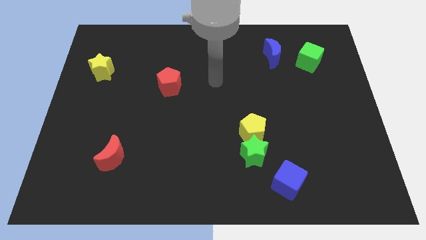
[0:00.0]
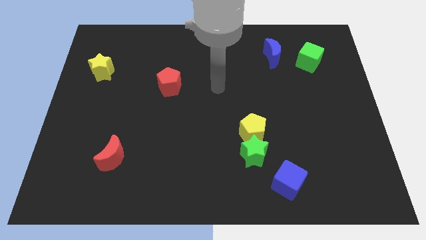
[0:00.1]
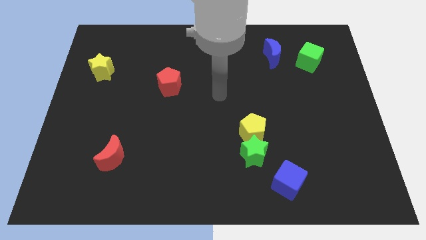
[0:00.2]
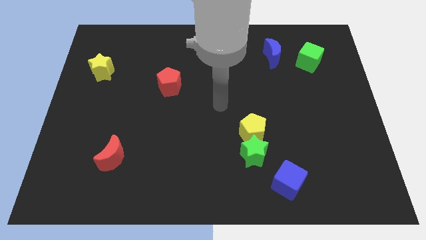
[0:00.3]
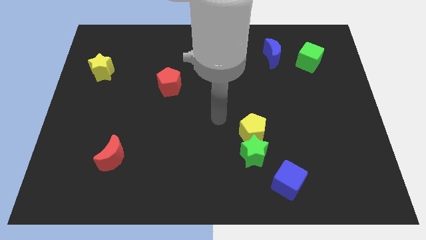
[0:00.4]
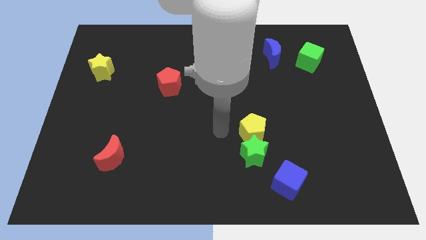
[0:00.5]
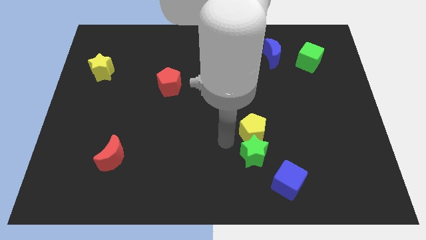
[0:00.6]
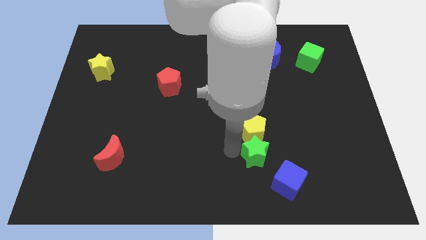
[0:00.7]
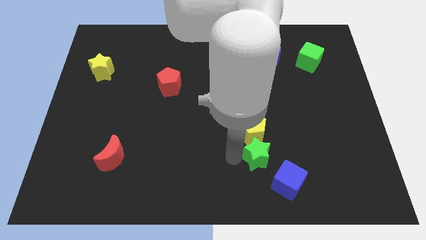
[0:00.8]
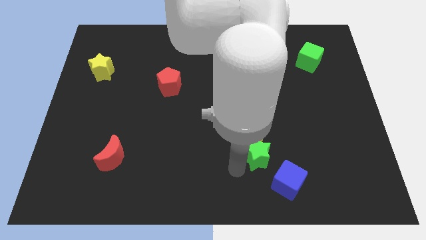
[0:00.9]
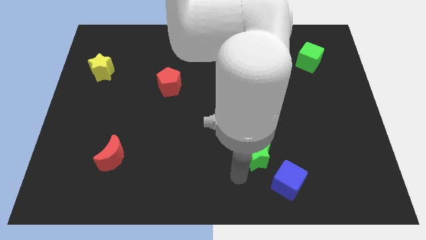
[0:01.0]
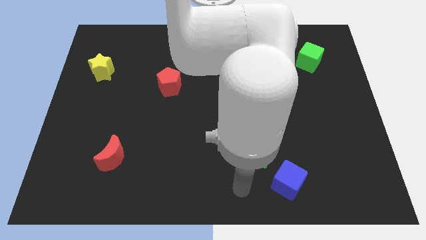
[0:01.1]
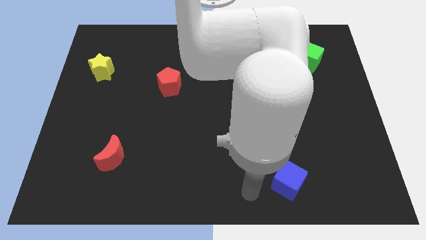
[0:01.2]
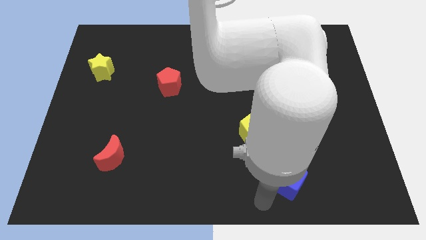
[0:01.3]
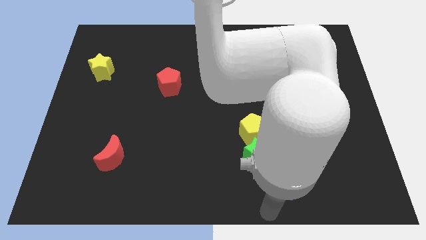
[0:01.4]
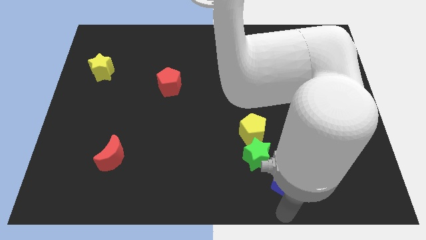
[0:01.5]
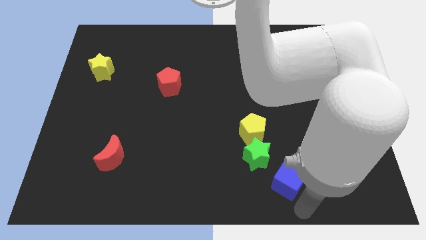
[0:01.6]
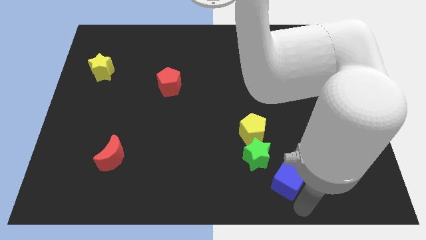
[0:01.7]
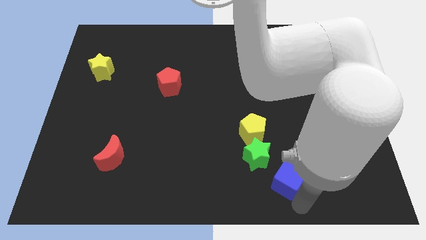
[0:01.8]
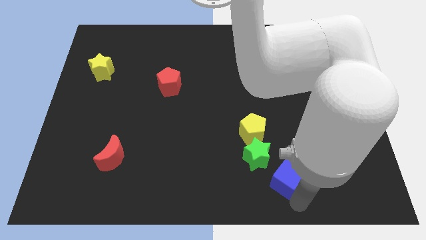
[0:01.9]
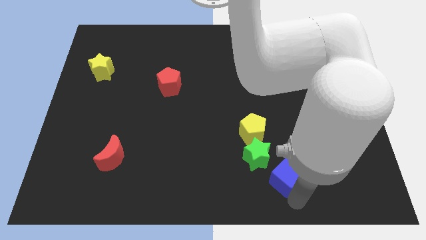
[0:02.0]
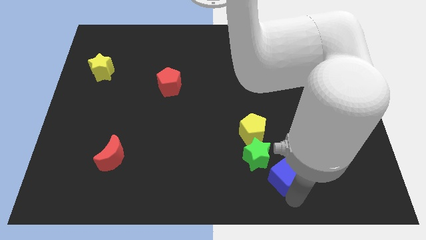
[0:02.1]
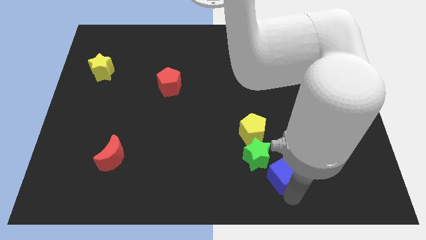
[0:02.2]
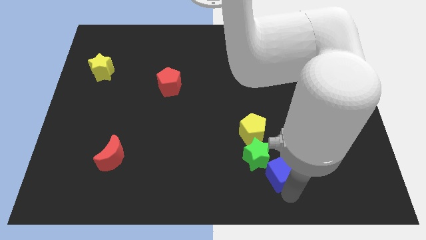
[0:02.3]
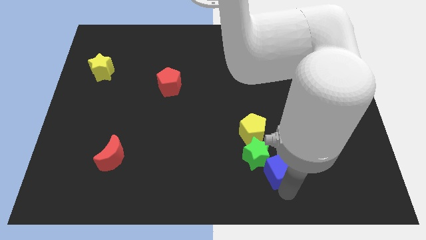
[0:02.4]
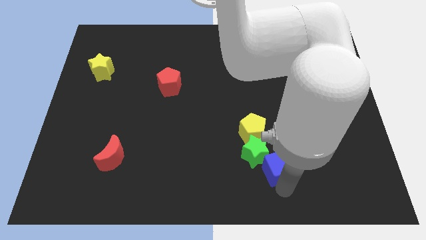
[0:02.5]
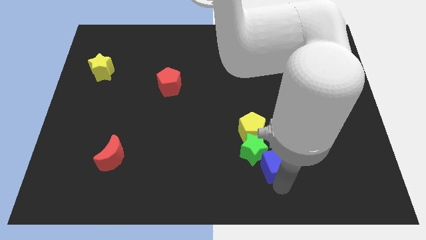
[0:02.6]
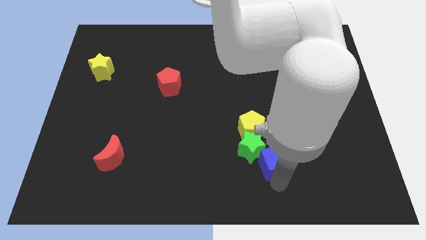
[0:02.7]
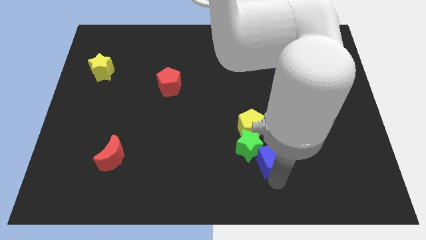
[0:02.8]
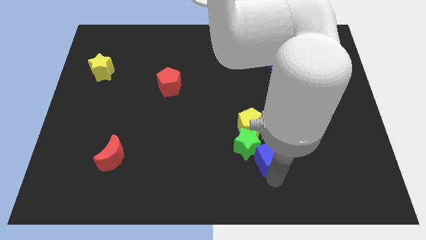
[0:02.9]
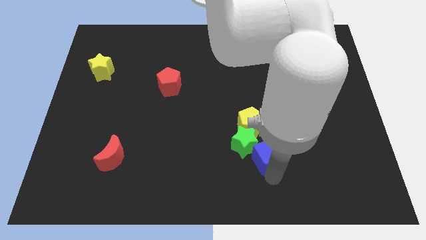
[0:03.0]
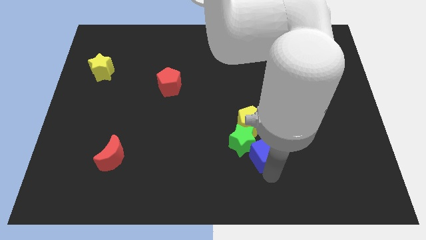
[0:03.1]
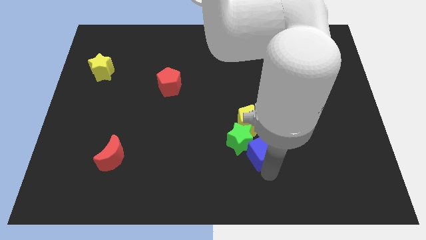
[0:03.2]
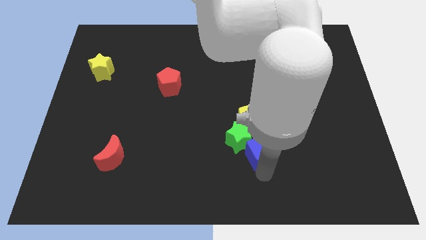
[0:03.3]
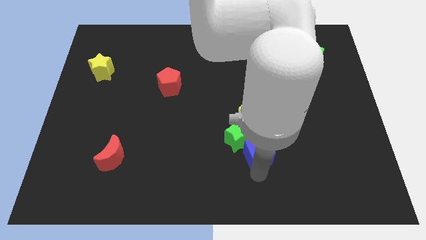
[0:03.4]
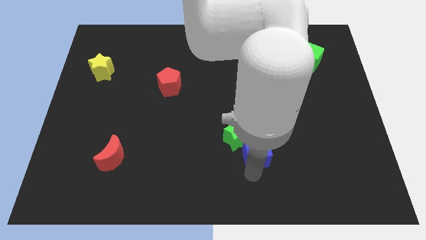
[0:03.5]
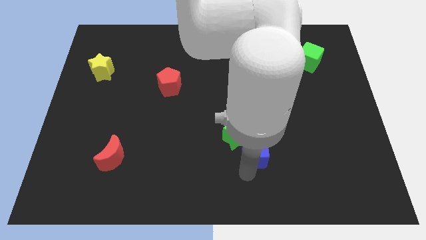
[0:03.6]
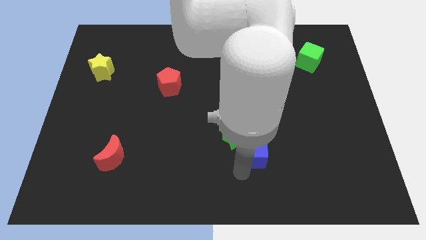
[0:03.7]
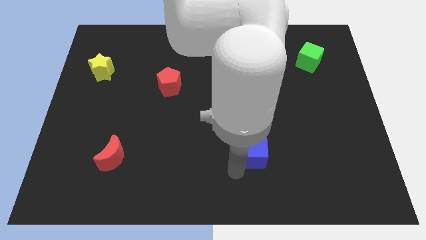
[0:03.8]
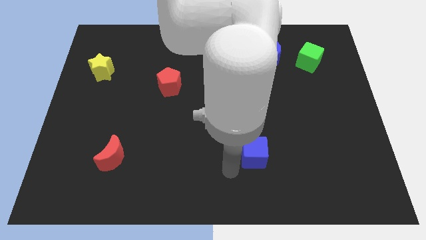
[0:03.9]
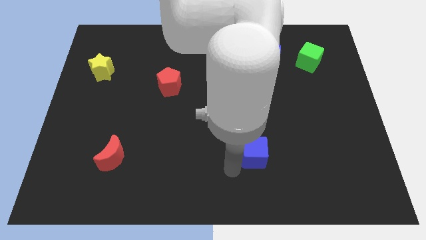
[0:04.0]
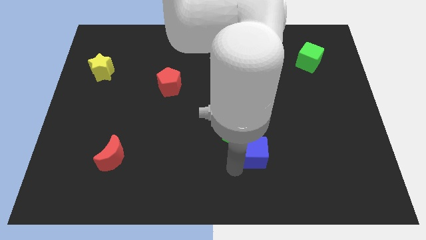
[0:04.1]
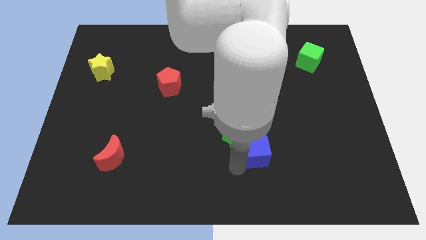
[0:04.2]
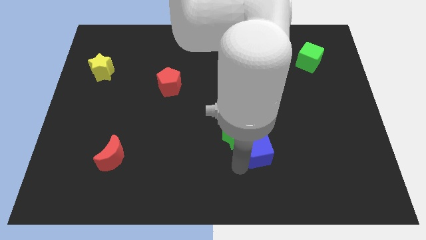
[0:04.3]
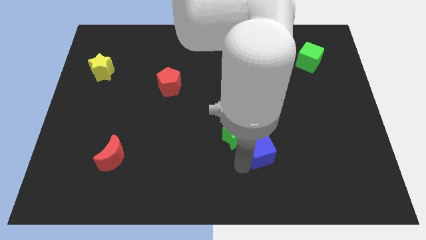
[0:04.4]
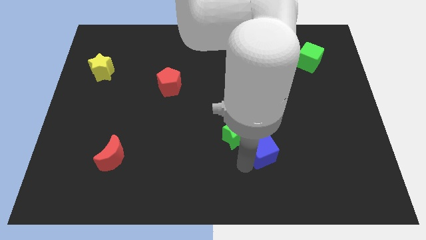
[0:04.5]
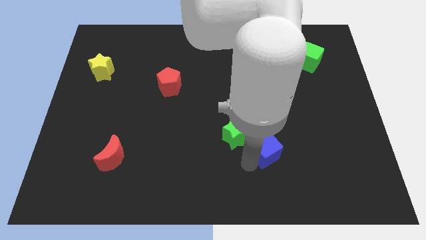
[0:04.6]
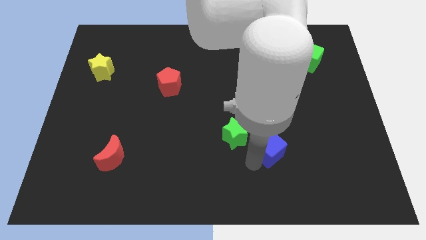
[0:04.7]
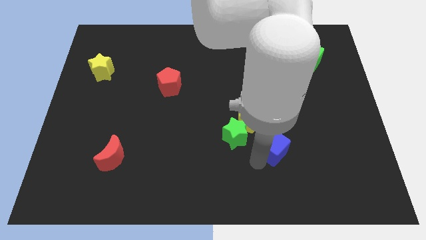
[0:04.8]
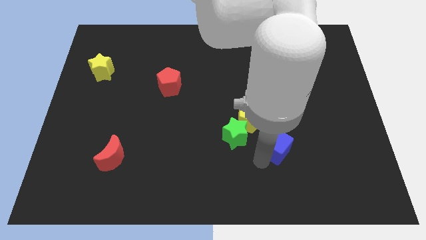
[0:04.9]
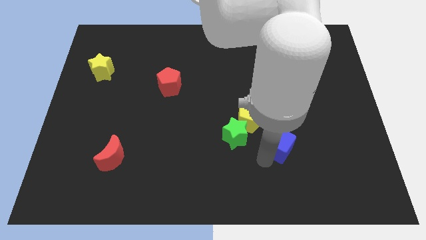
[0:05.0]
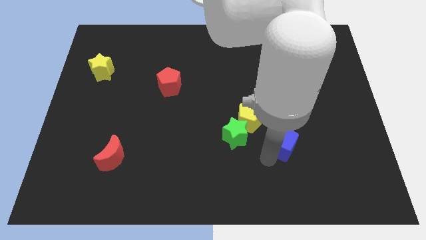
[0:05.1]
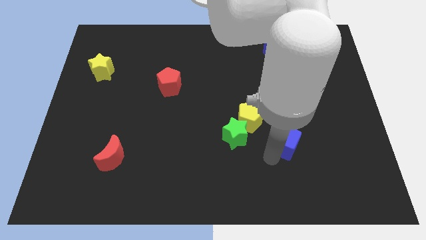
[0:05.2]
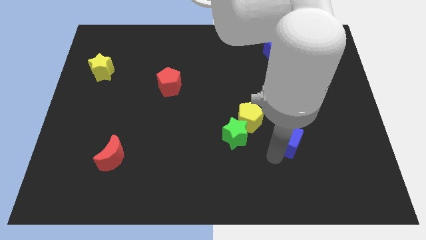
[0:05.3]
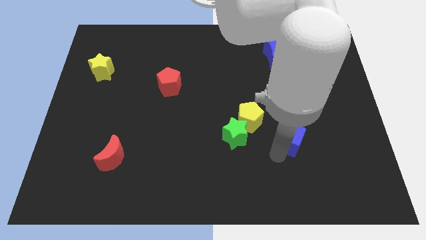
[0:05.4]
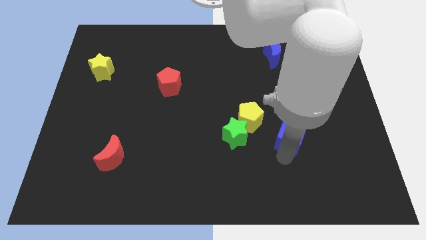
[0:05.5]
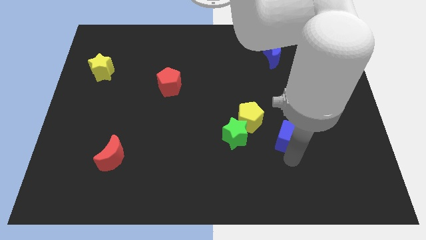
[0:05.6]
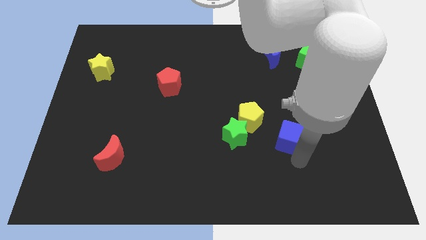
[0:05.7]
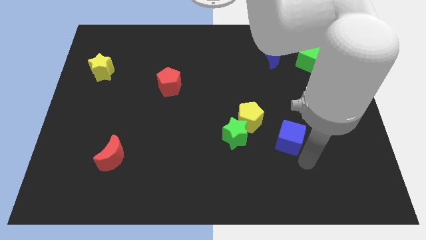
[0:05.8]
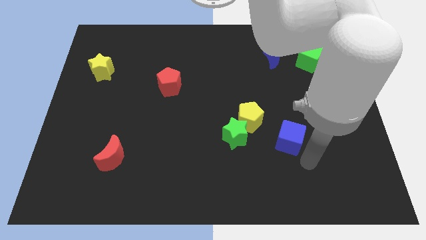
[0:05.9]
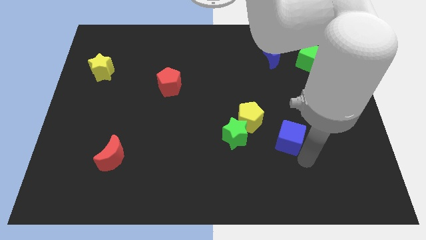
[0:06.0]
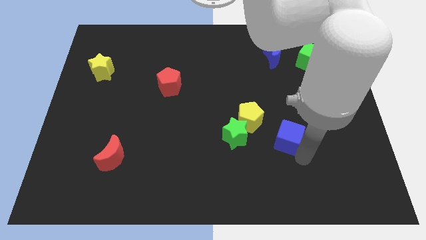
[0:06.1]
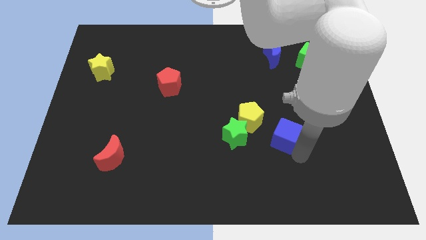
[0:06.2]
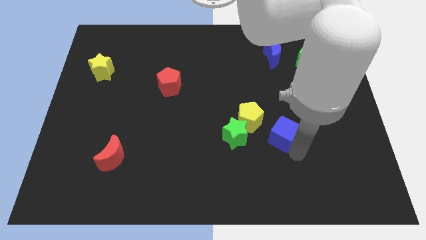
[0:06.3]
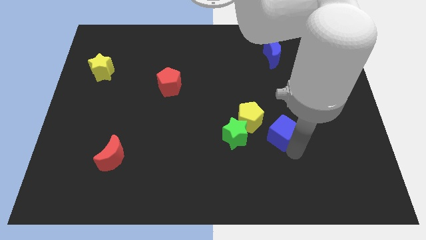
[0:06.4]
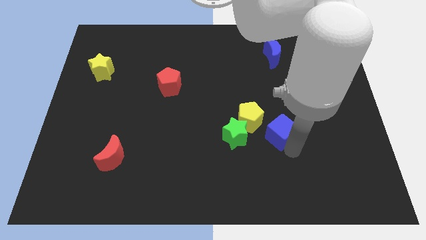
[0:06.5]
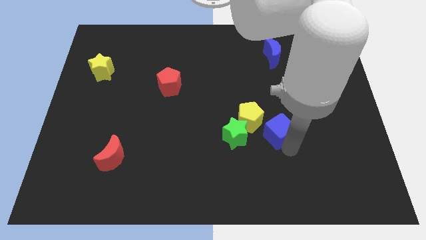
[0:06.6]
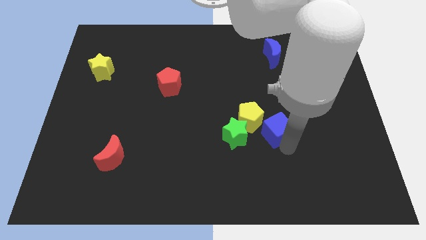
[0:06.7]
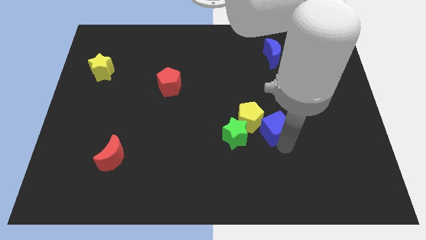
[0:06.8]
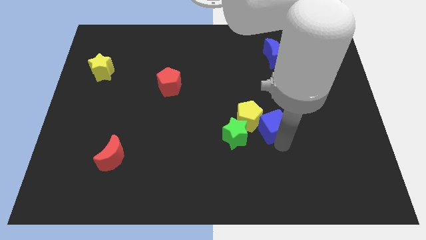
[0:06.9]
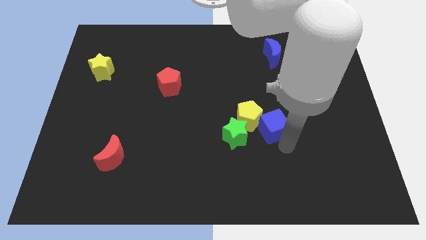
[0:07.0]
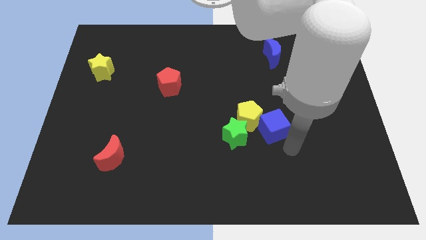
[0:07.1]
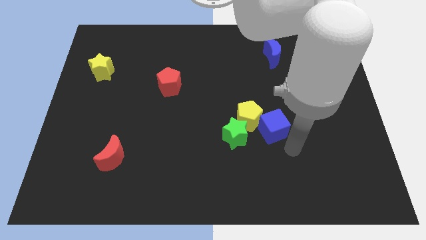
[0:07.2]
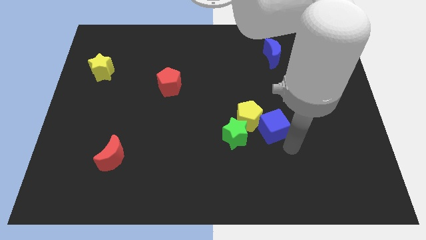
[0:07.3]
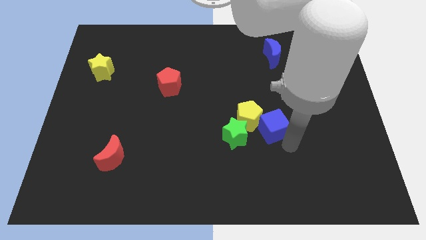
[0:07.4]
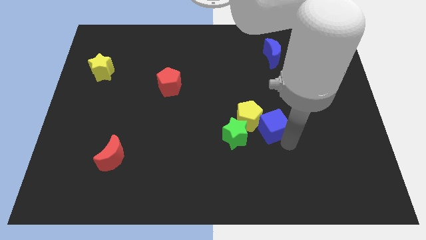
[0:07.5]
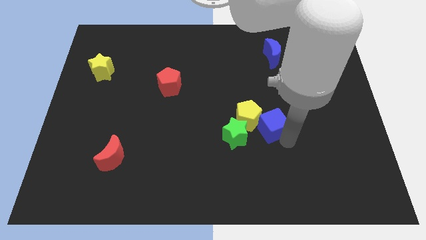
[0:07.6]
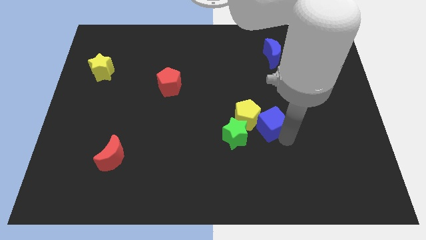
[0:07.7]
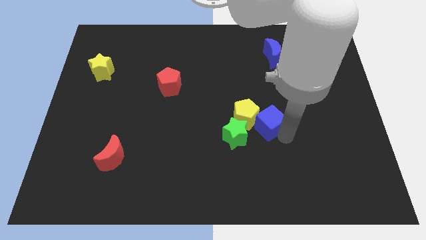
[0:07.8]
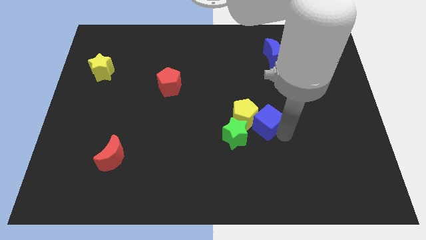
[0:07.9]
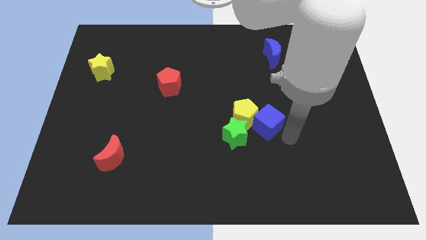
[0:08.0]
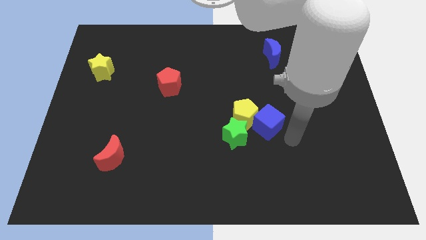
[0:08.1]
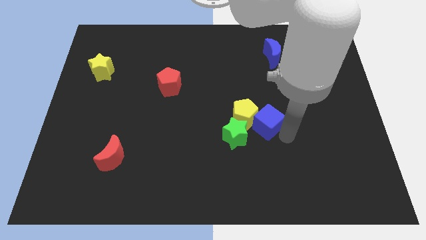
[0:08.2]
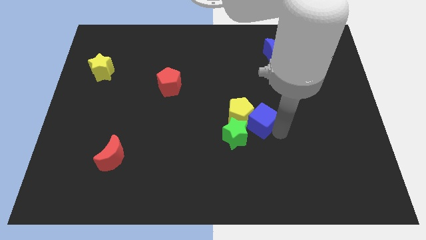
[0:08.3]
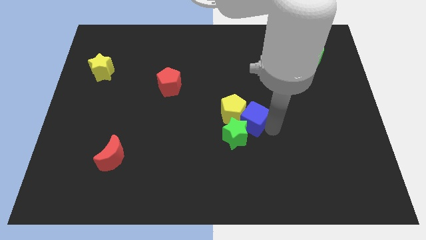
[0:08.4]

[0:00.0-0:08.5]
push the blue cube to the center of the board
